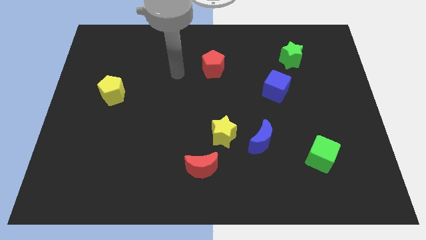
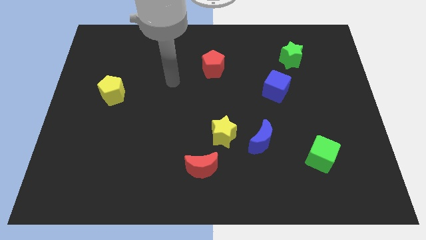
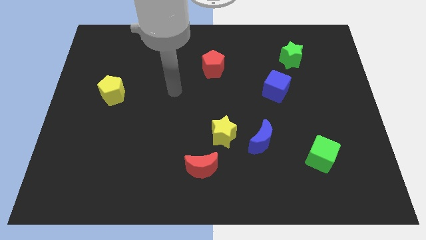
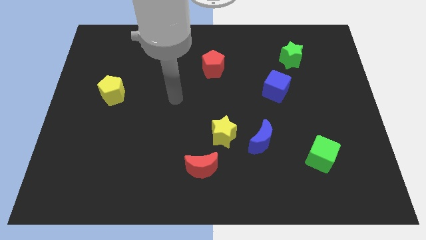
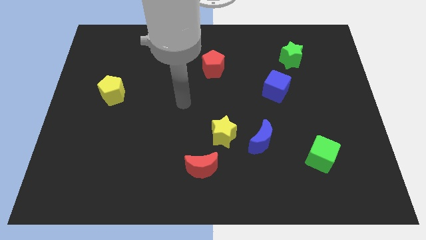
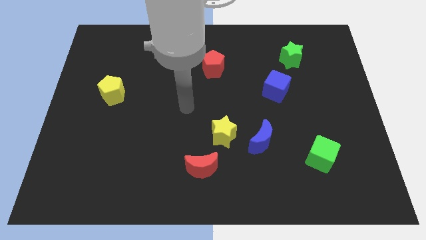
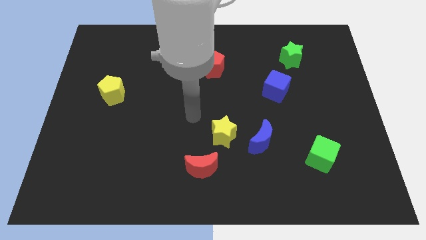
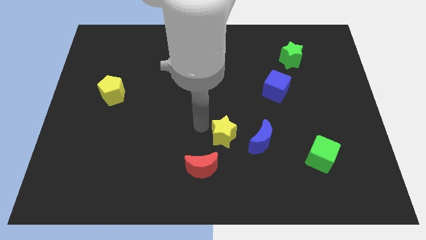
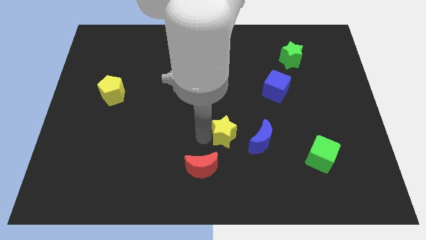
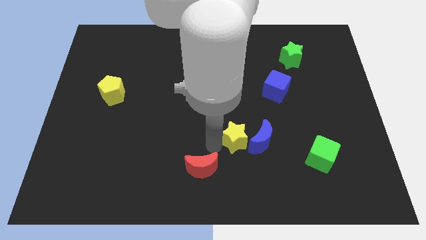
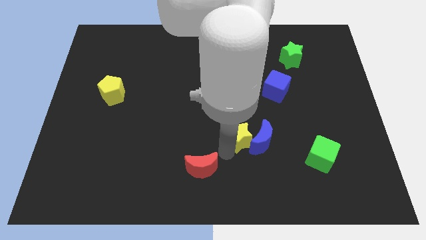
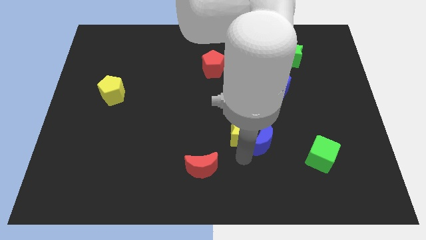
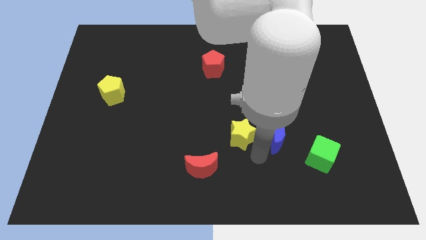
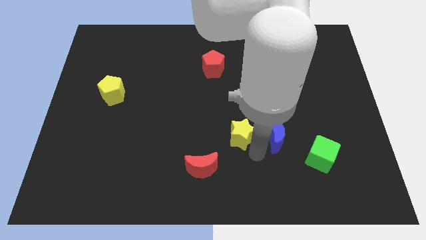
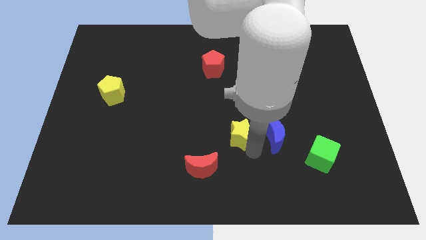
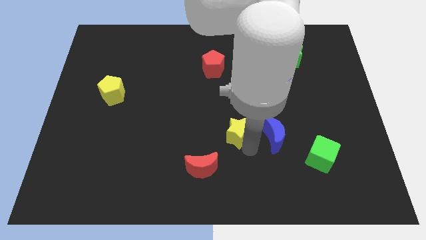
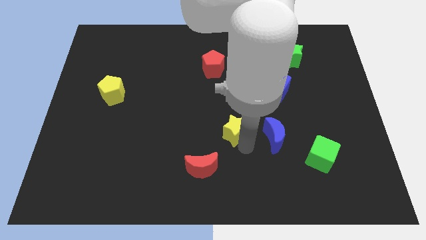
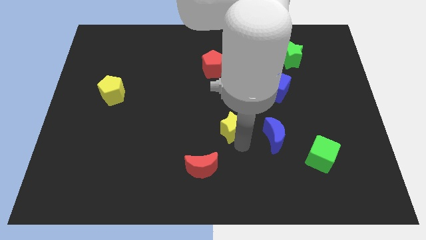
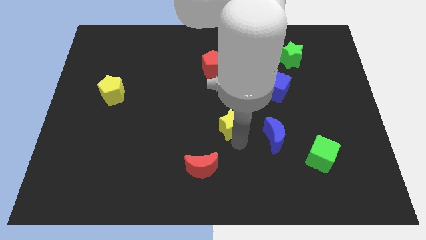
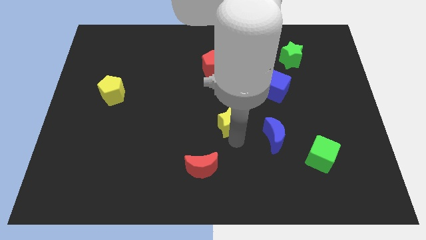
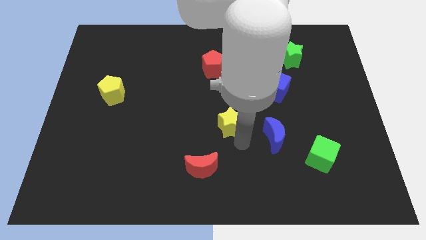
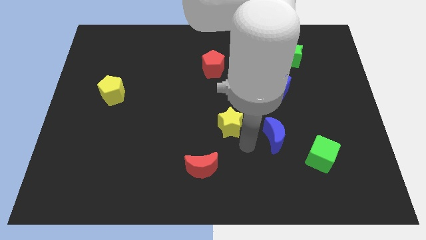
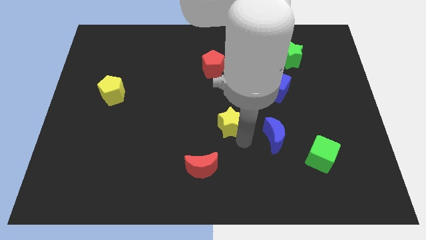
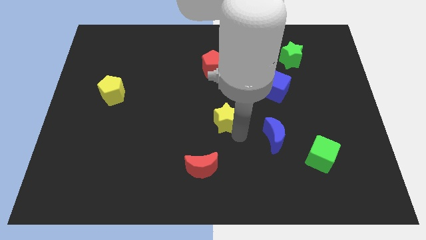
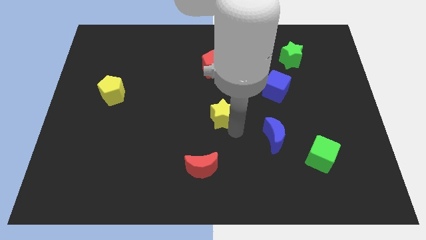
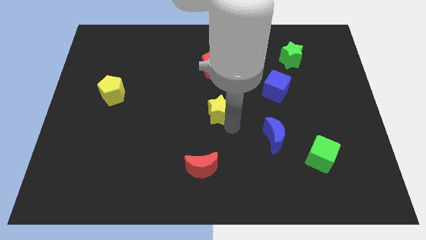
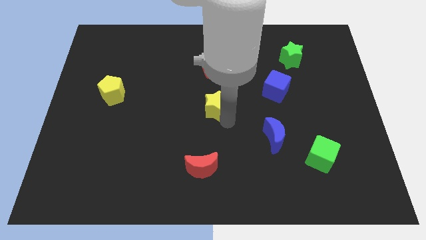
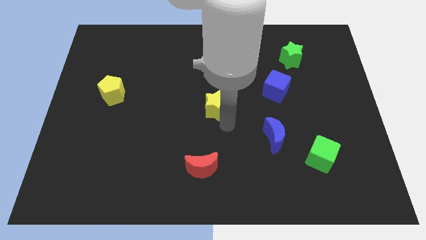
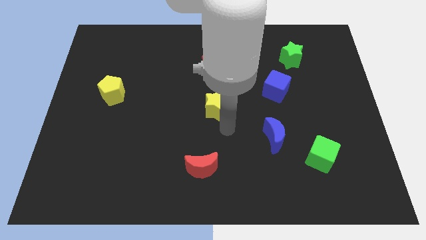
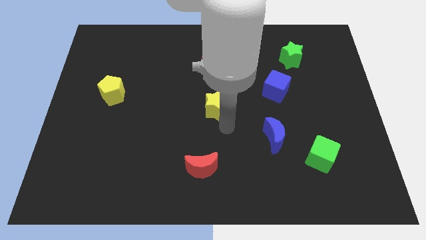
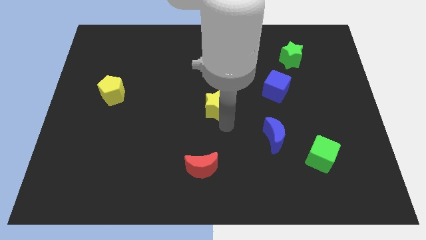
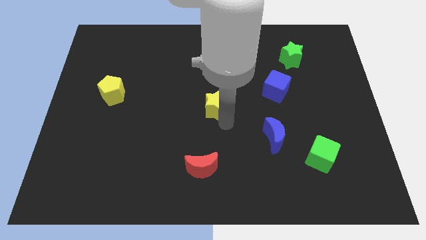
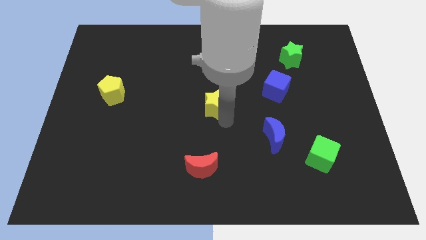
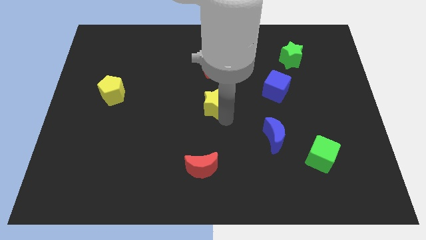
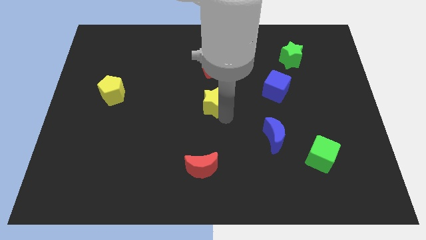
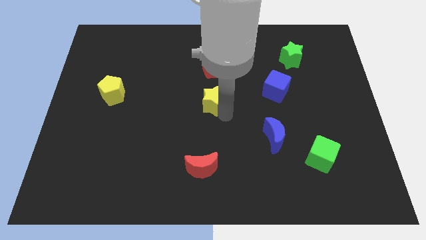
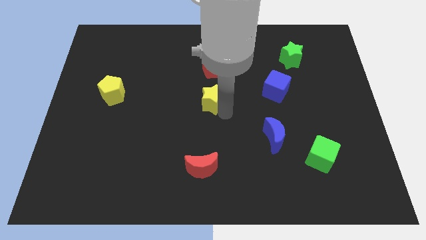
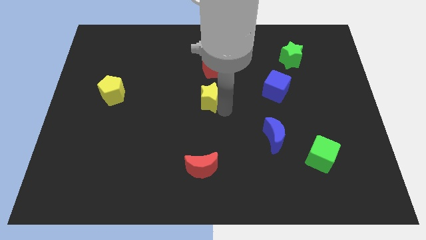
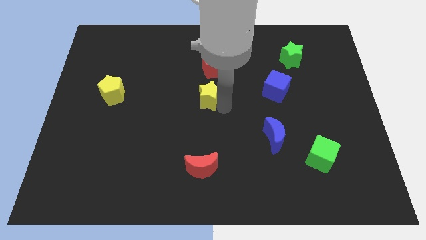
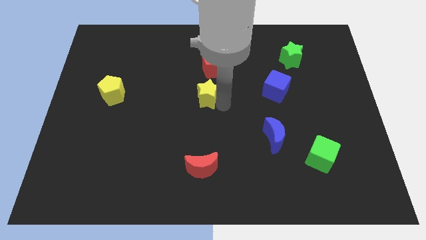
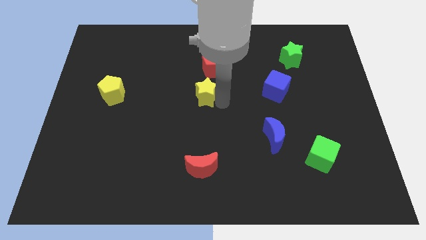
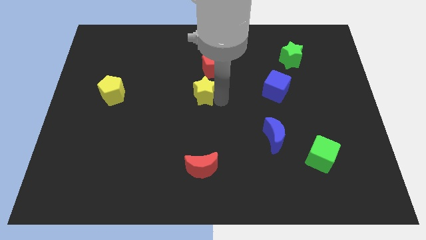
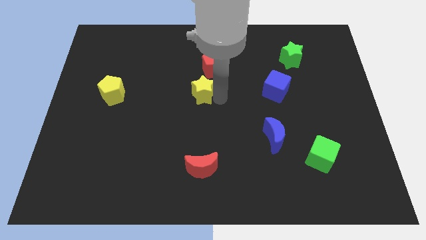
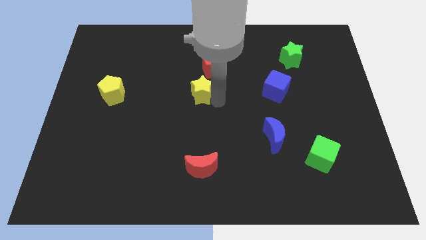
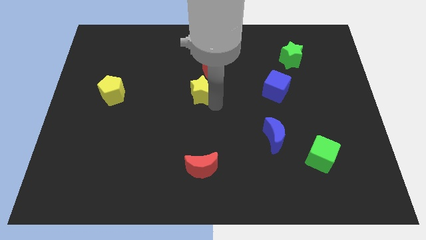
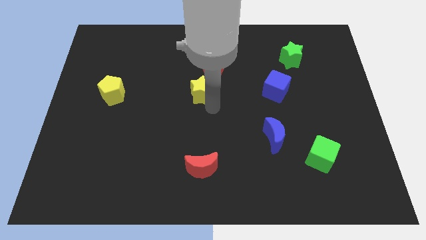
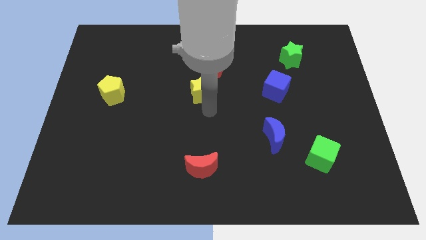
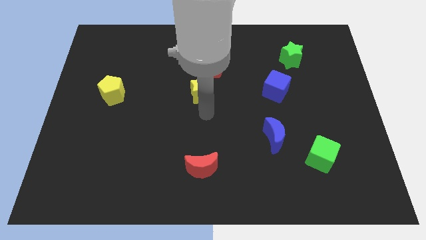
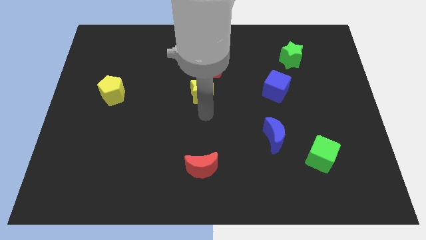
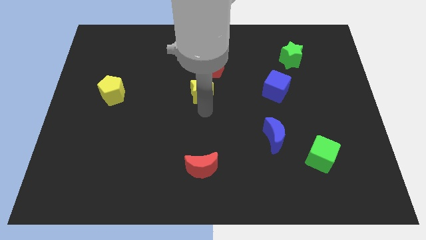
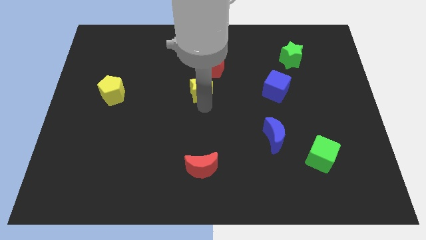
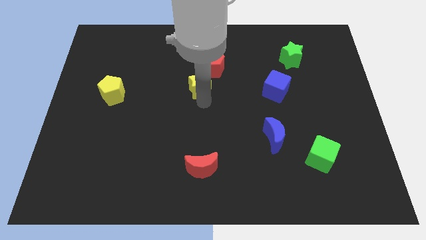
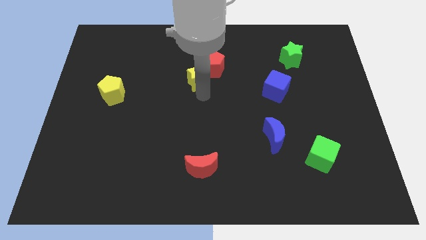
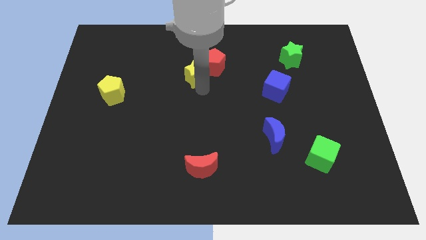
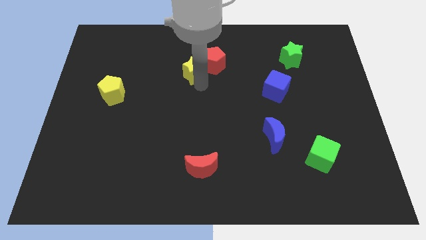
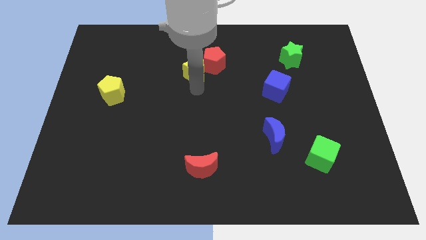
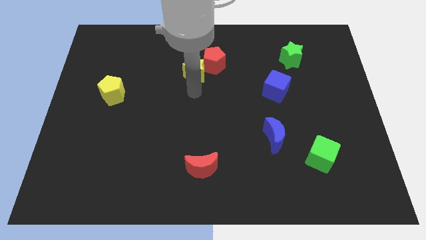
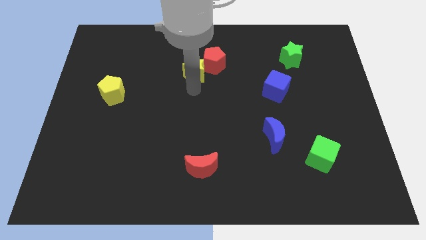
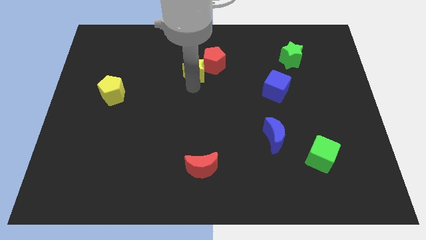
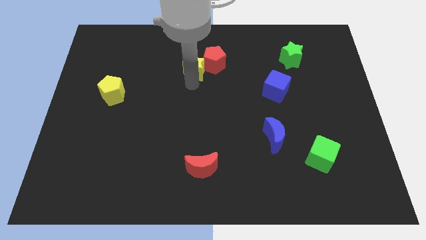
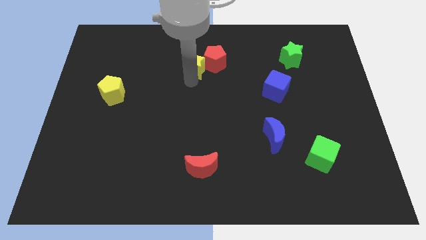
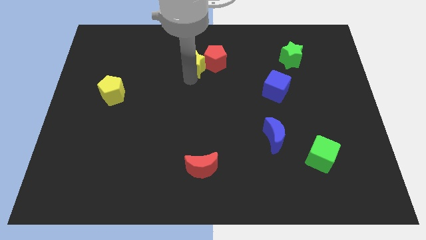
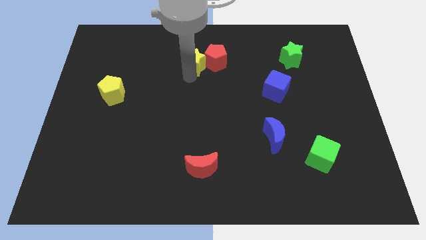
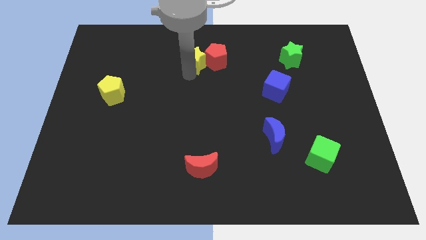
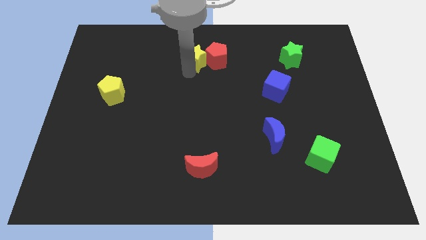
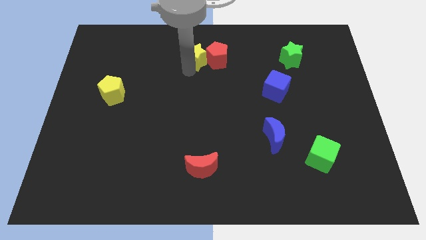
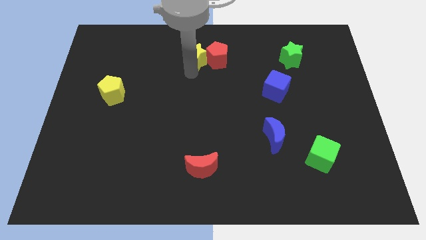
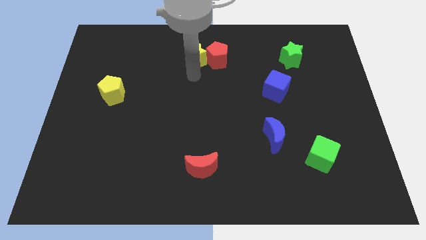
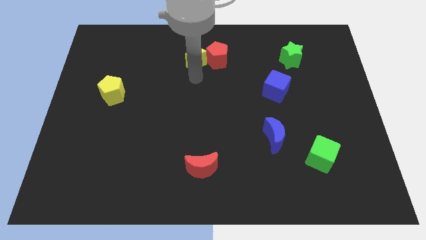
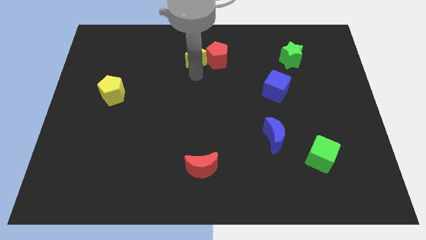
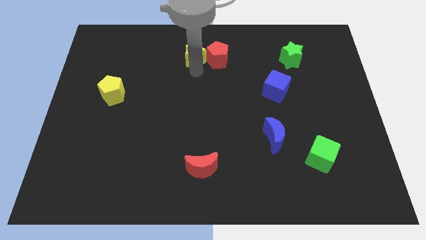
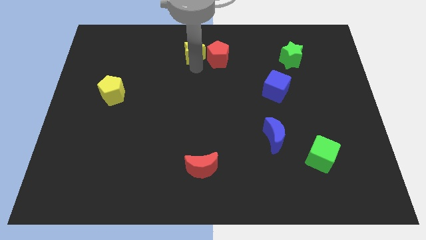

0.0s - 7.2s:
push the yellow star to the towards your base
